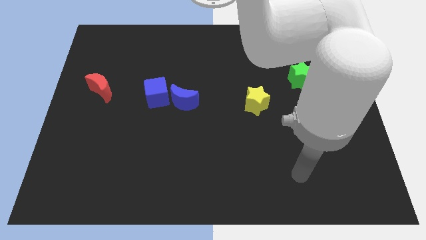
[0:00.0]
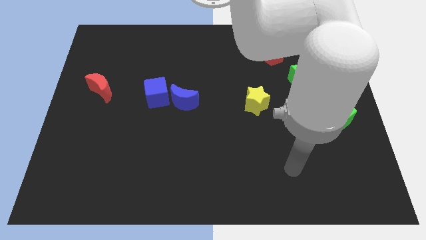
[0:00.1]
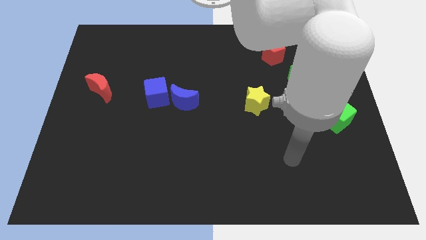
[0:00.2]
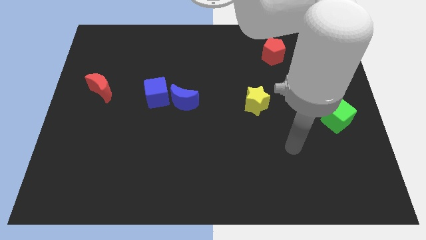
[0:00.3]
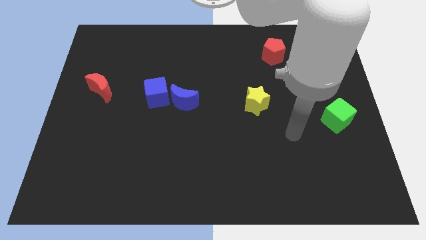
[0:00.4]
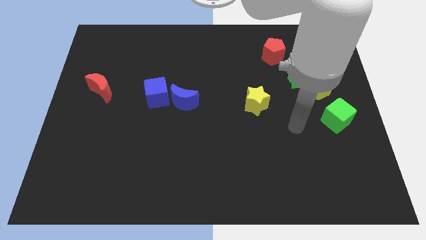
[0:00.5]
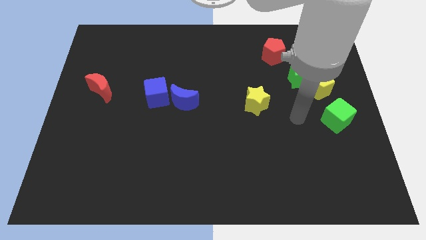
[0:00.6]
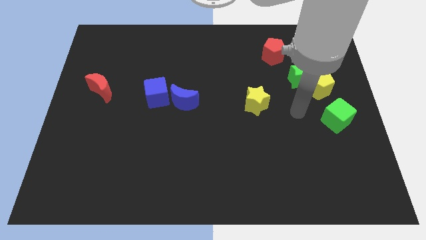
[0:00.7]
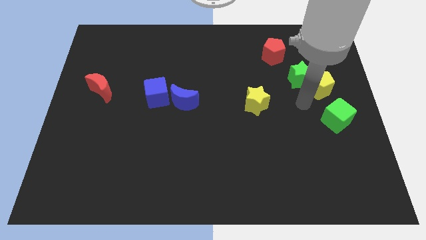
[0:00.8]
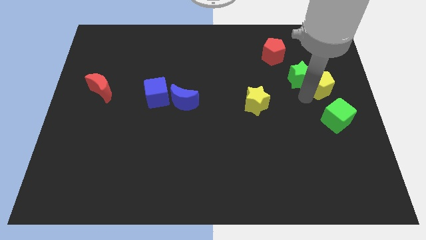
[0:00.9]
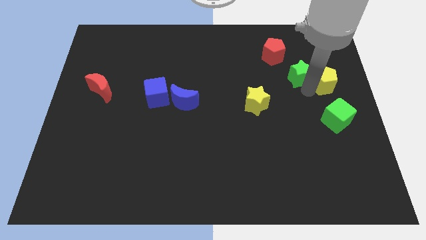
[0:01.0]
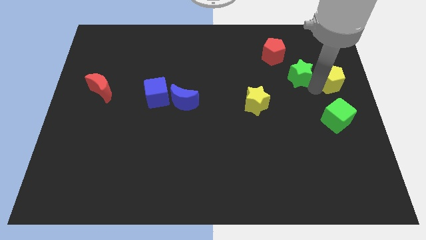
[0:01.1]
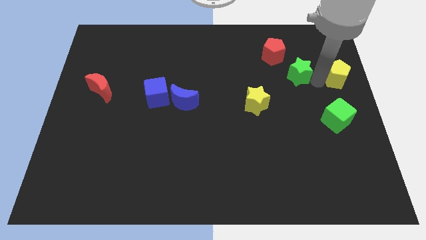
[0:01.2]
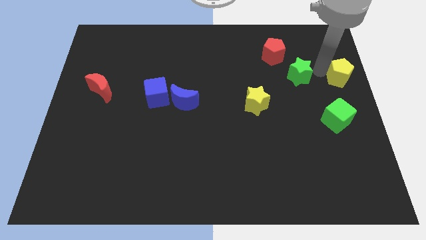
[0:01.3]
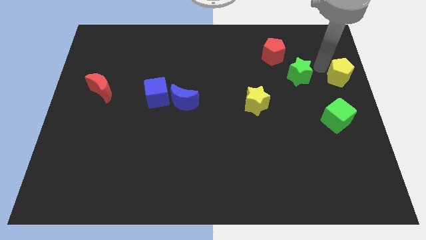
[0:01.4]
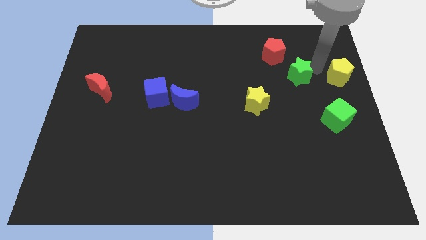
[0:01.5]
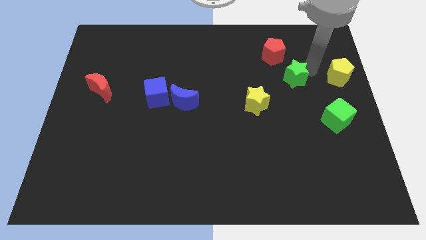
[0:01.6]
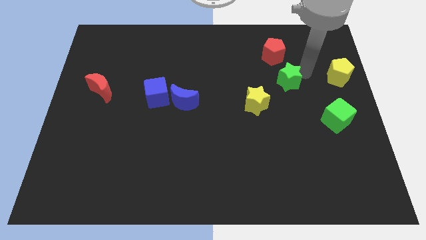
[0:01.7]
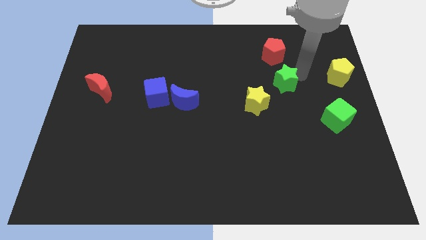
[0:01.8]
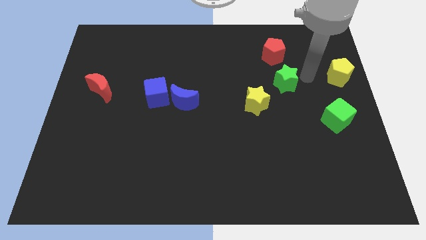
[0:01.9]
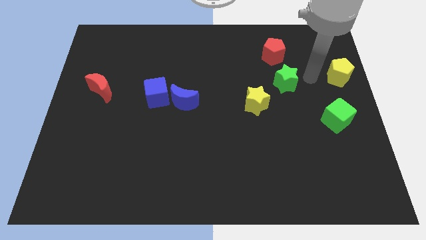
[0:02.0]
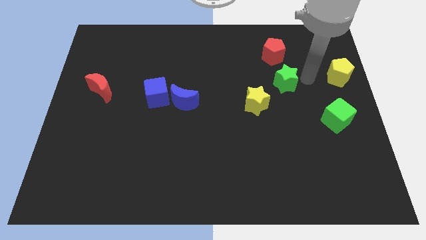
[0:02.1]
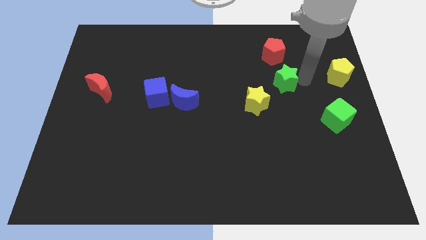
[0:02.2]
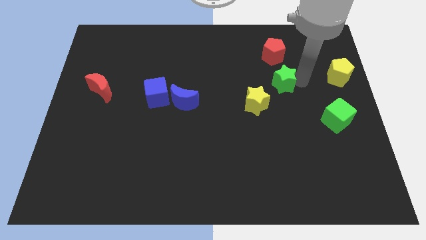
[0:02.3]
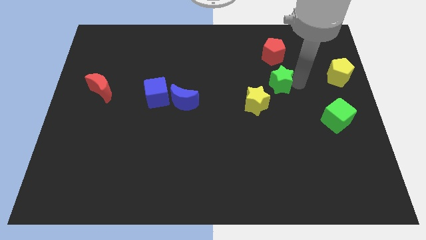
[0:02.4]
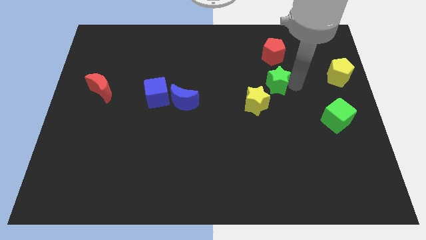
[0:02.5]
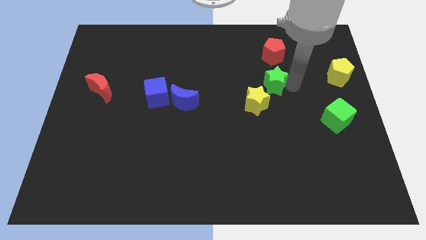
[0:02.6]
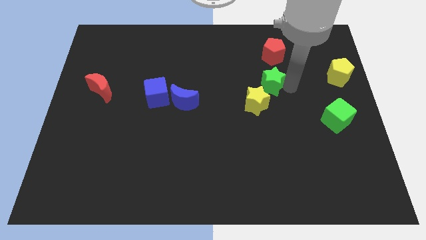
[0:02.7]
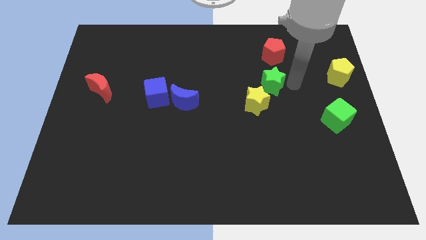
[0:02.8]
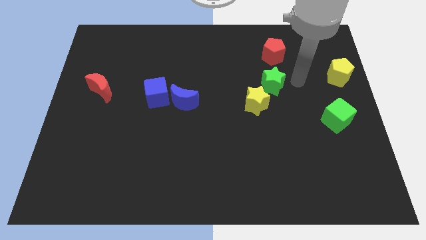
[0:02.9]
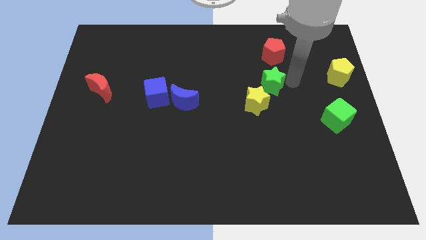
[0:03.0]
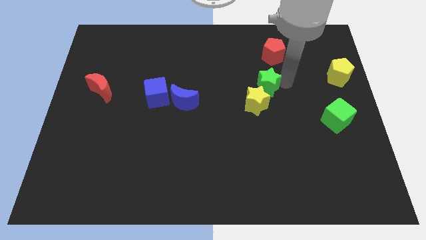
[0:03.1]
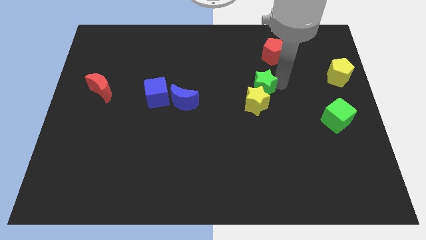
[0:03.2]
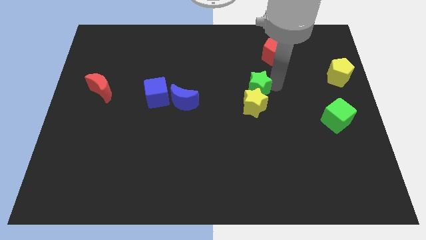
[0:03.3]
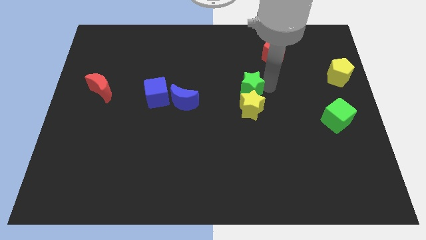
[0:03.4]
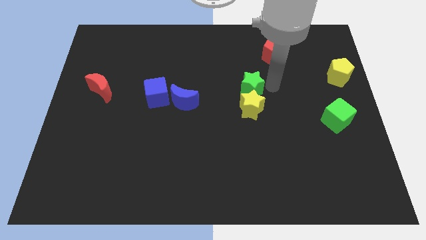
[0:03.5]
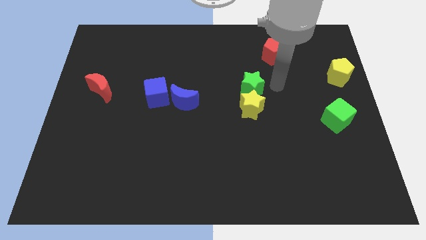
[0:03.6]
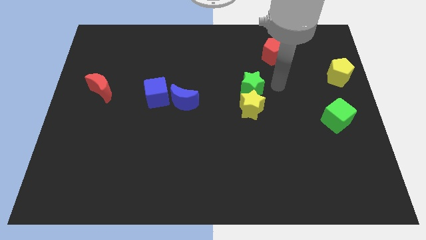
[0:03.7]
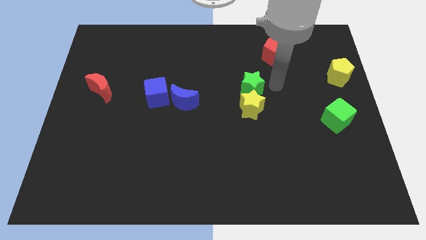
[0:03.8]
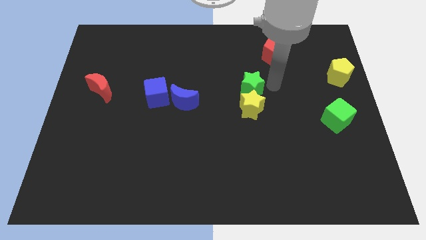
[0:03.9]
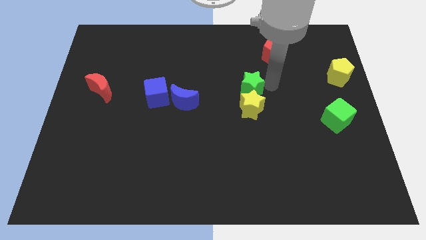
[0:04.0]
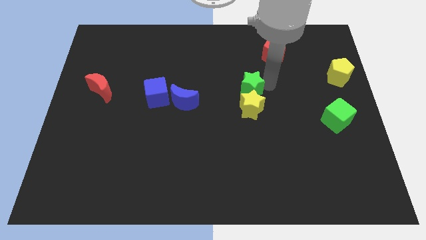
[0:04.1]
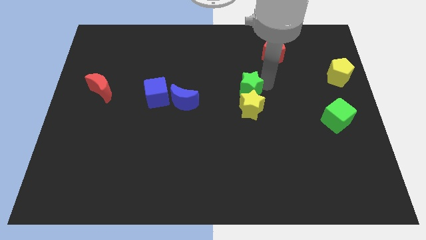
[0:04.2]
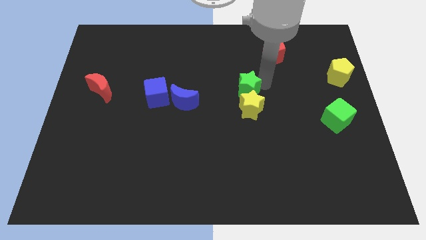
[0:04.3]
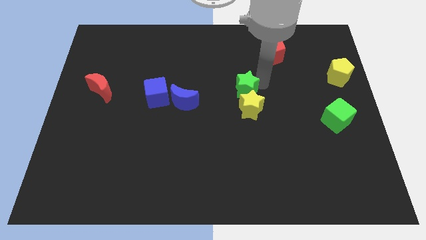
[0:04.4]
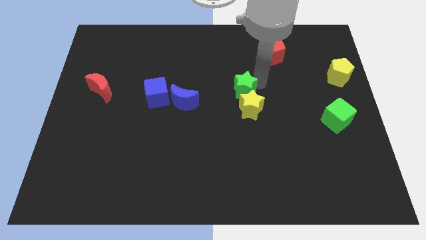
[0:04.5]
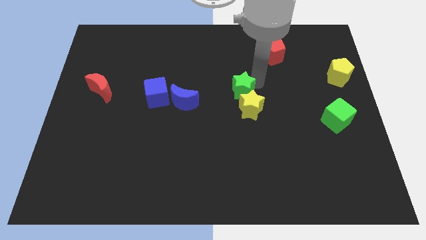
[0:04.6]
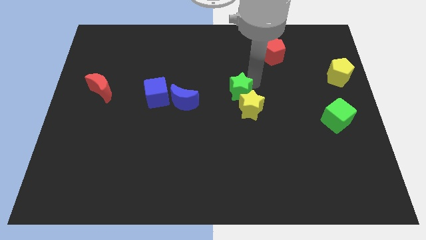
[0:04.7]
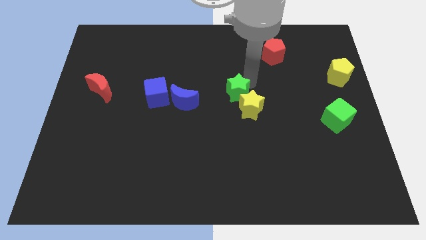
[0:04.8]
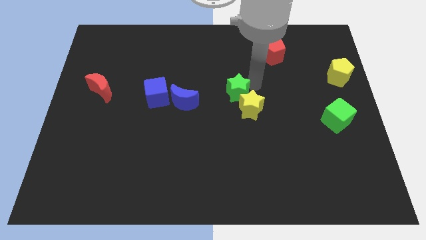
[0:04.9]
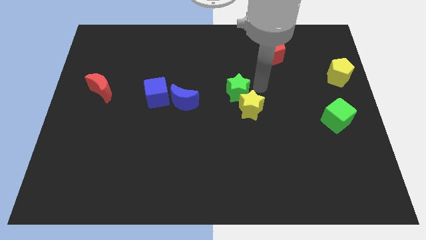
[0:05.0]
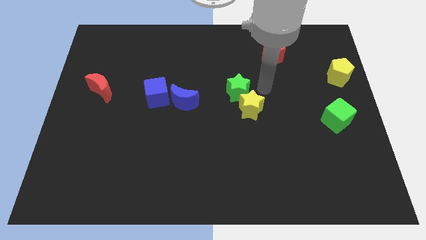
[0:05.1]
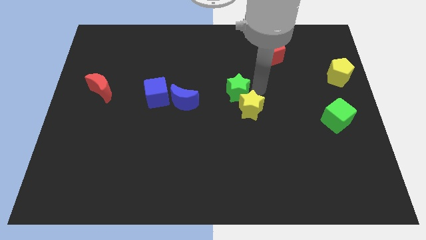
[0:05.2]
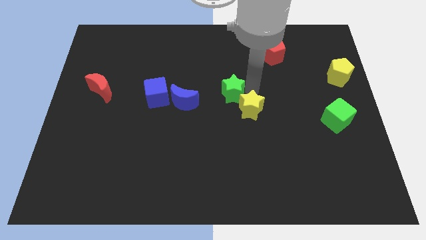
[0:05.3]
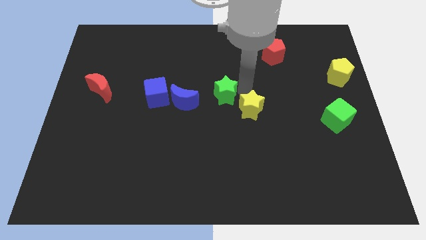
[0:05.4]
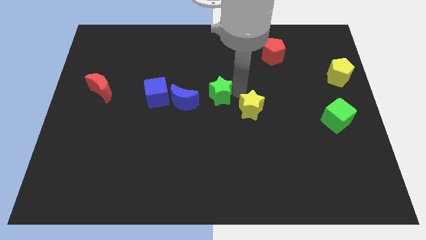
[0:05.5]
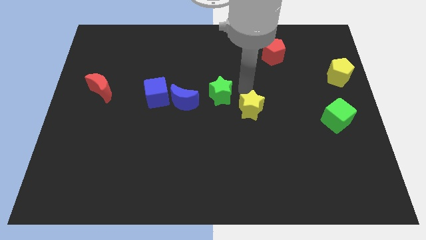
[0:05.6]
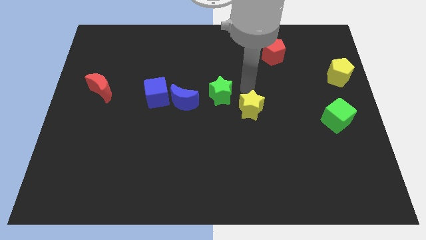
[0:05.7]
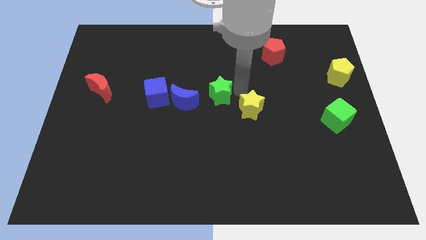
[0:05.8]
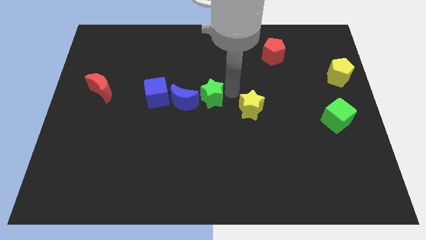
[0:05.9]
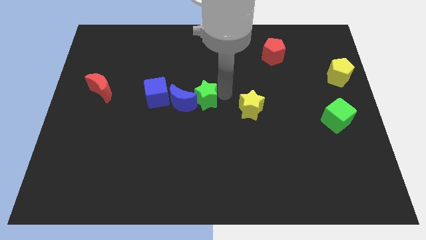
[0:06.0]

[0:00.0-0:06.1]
push the green star next to the blue moon

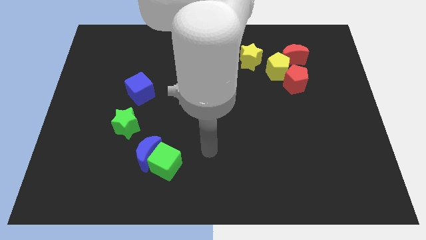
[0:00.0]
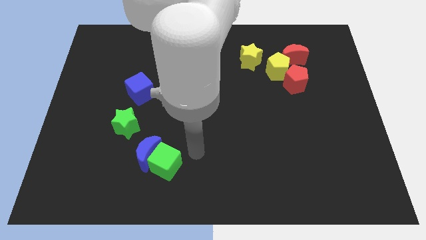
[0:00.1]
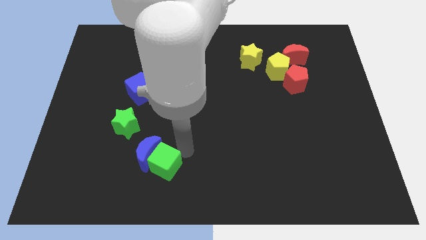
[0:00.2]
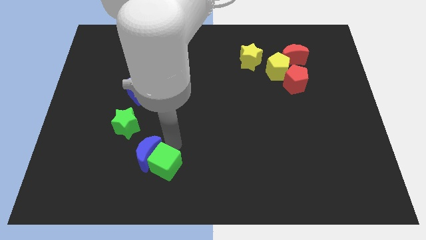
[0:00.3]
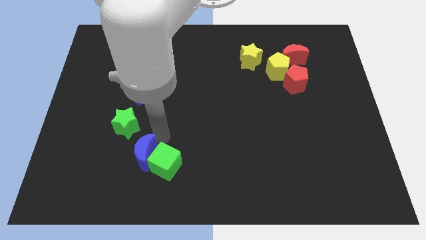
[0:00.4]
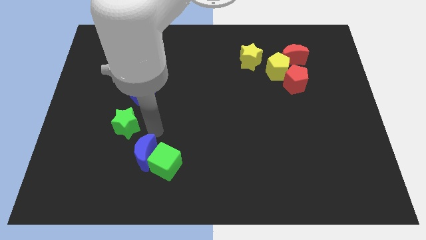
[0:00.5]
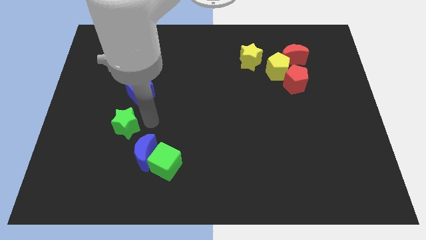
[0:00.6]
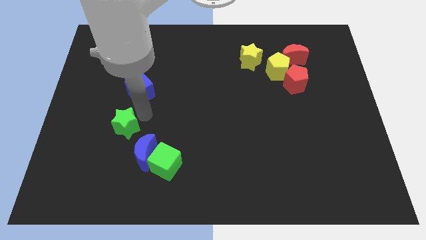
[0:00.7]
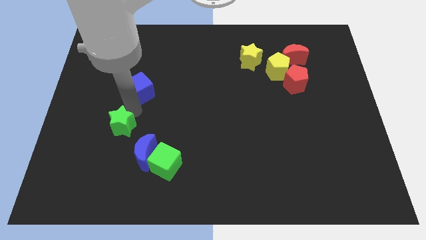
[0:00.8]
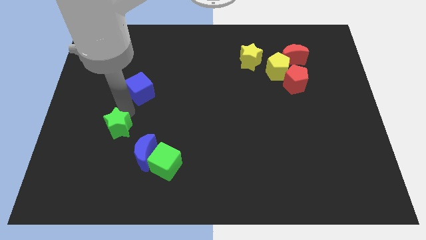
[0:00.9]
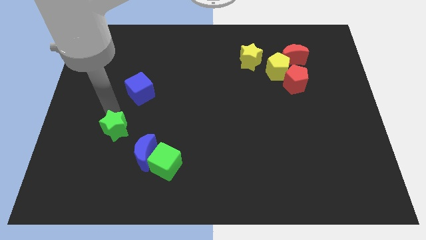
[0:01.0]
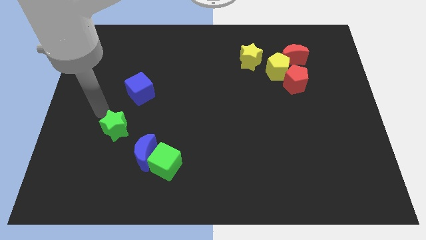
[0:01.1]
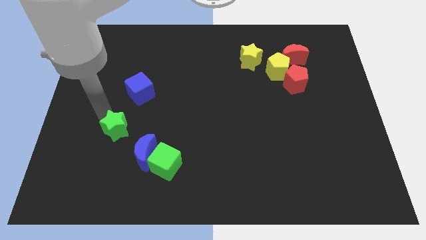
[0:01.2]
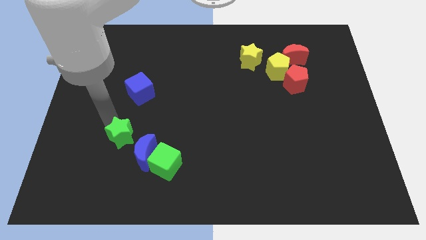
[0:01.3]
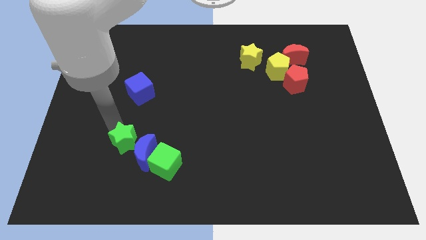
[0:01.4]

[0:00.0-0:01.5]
move the green star towards the blue moon
